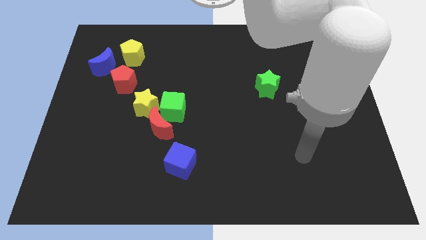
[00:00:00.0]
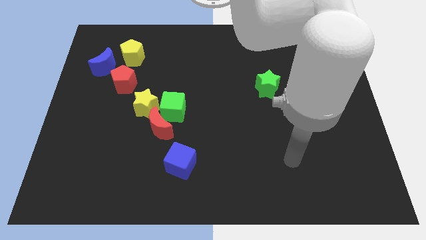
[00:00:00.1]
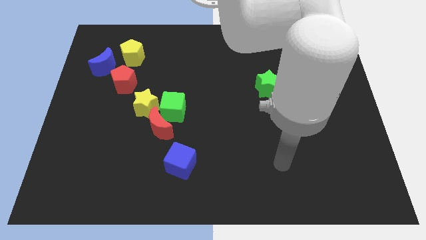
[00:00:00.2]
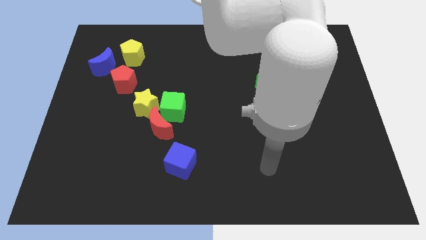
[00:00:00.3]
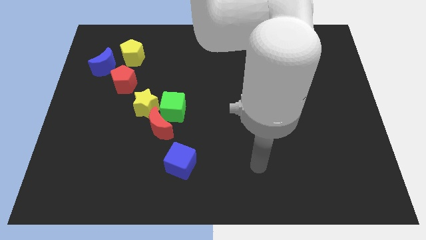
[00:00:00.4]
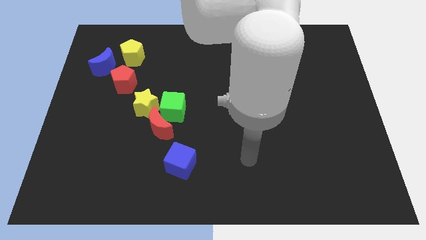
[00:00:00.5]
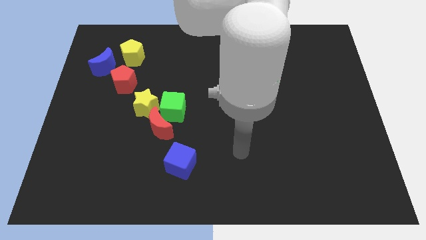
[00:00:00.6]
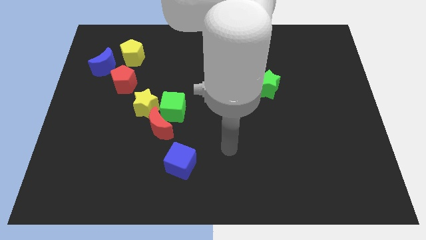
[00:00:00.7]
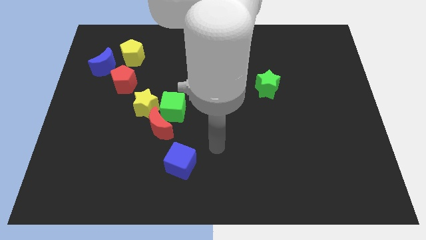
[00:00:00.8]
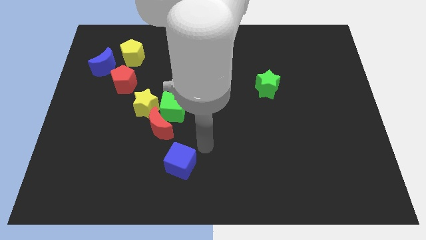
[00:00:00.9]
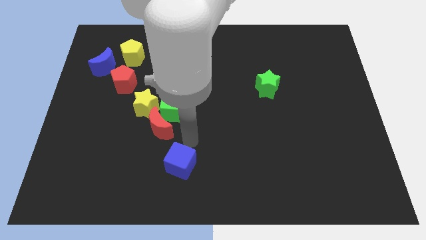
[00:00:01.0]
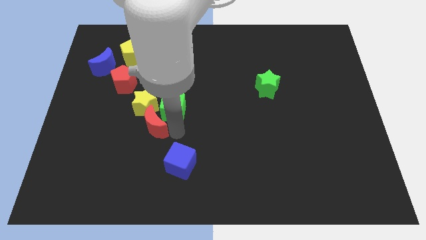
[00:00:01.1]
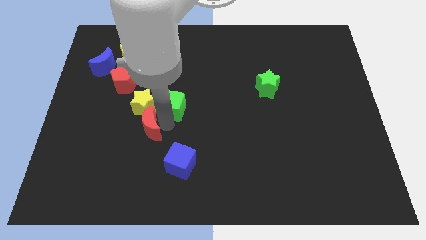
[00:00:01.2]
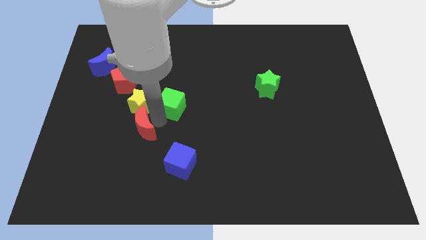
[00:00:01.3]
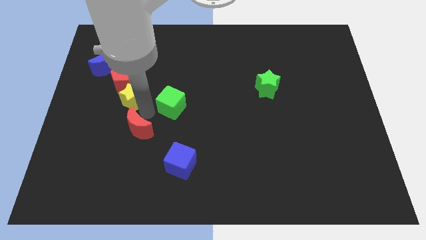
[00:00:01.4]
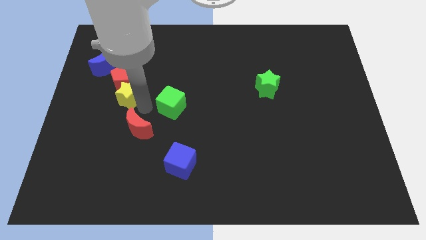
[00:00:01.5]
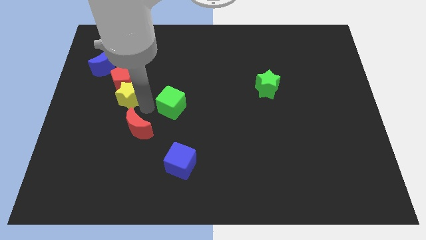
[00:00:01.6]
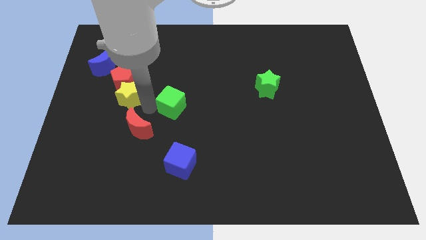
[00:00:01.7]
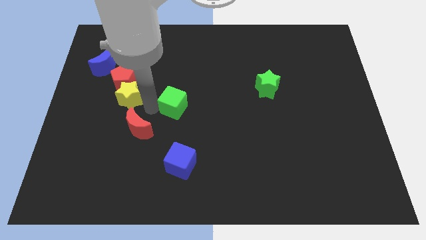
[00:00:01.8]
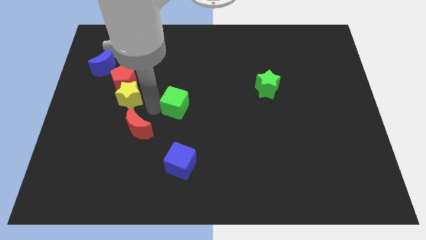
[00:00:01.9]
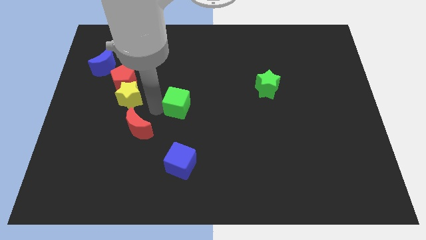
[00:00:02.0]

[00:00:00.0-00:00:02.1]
move the green cube away from the red moon and yellow star

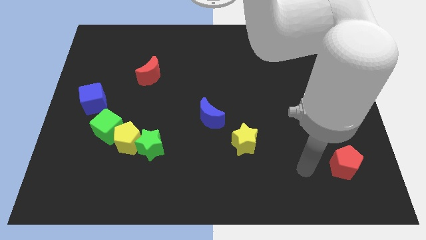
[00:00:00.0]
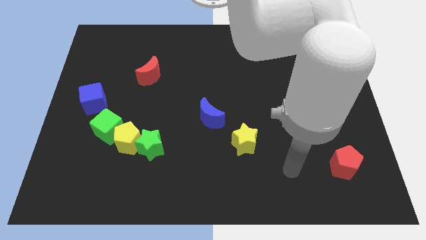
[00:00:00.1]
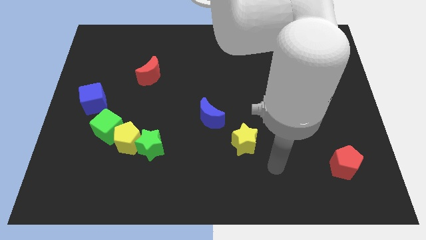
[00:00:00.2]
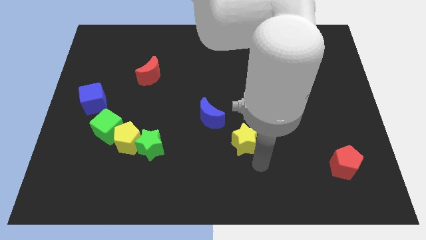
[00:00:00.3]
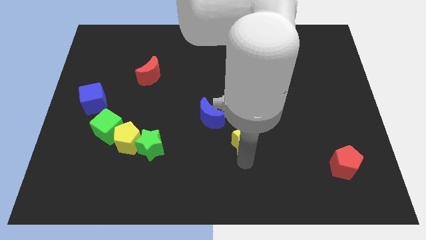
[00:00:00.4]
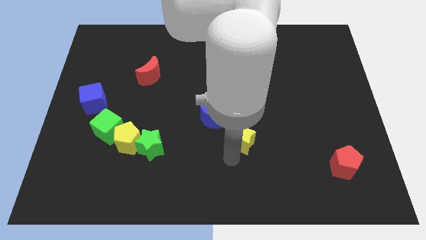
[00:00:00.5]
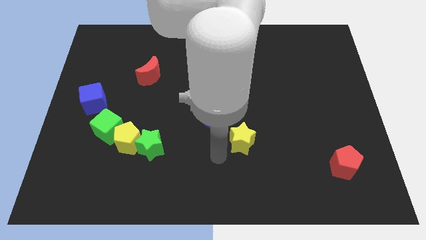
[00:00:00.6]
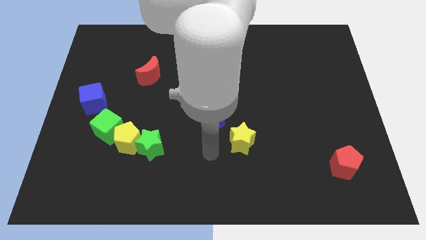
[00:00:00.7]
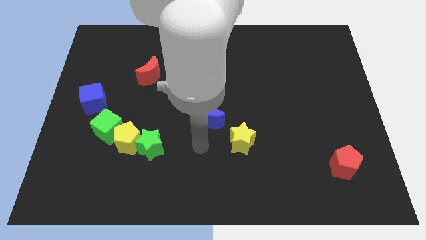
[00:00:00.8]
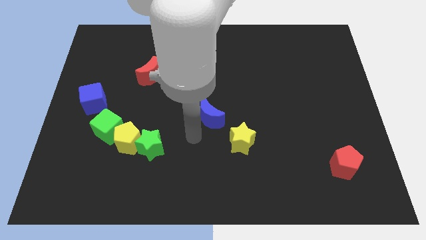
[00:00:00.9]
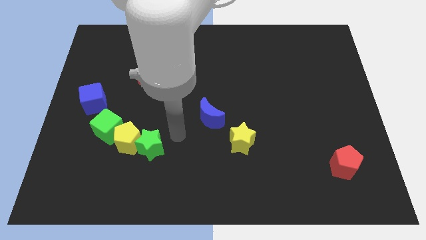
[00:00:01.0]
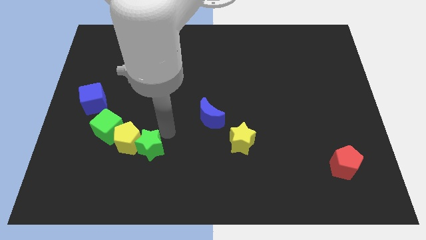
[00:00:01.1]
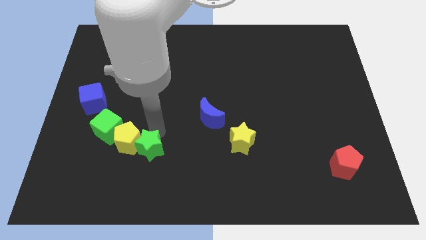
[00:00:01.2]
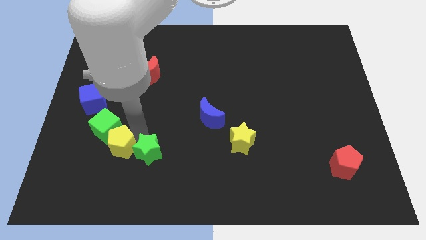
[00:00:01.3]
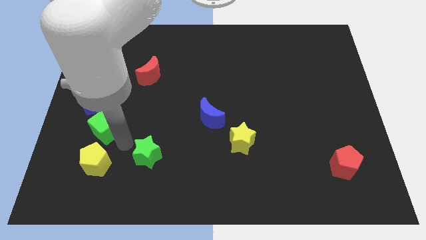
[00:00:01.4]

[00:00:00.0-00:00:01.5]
pull the green star apart from the yellow pentagon

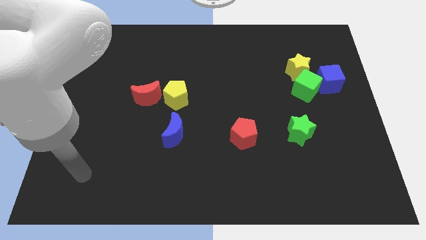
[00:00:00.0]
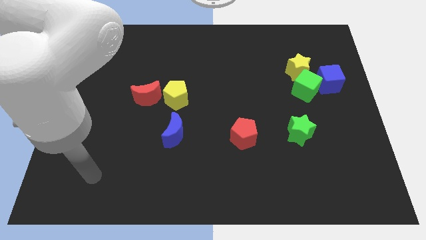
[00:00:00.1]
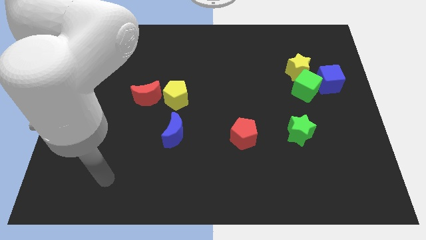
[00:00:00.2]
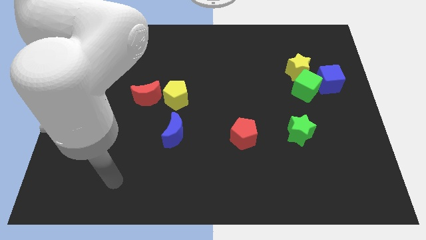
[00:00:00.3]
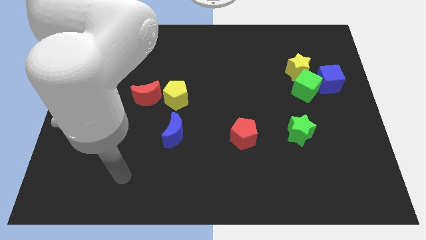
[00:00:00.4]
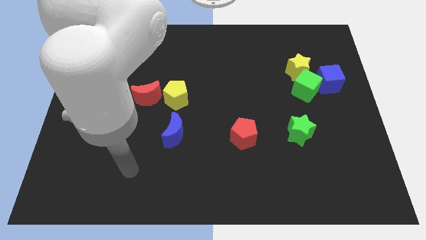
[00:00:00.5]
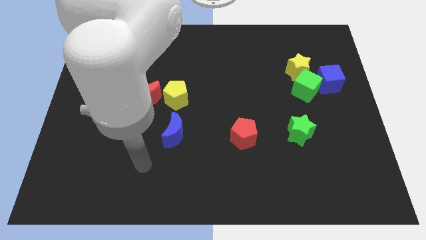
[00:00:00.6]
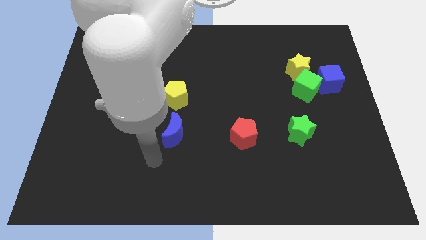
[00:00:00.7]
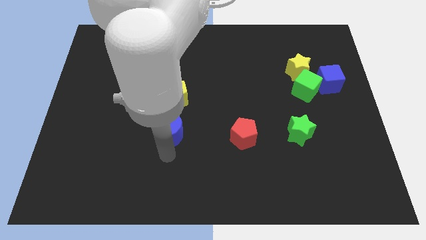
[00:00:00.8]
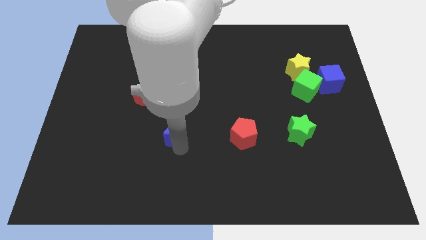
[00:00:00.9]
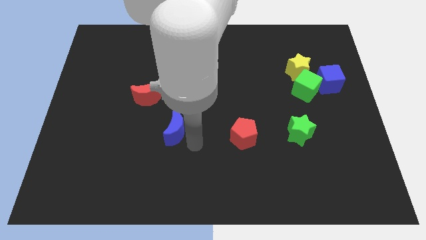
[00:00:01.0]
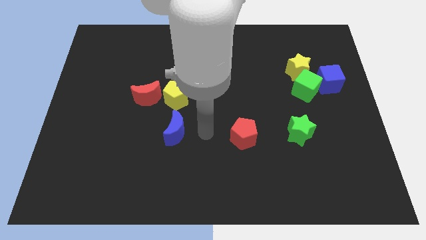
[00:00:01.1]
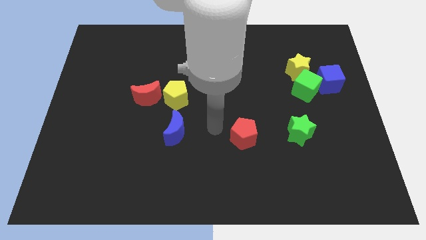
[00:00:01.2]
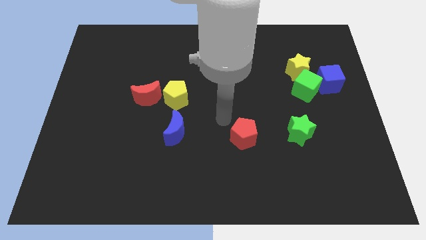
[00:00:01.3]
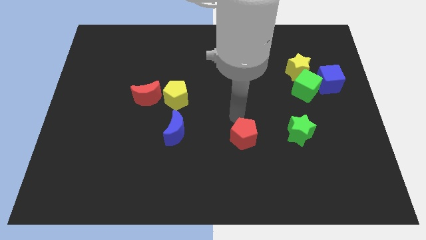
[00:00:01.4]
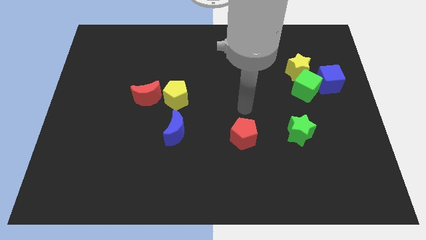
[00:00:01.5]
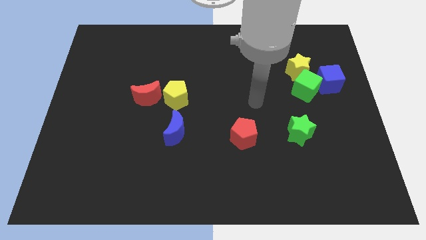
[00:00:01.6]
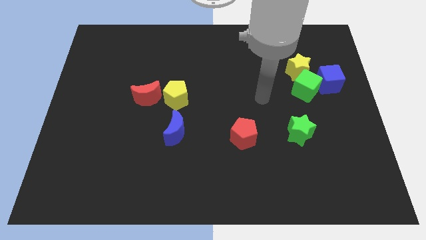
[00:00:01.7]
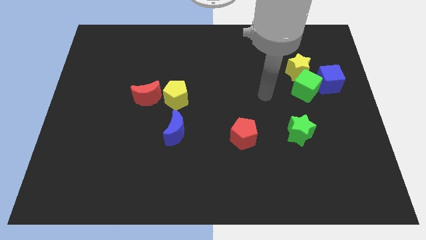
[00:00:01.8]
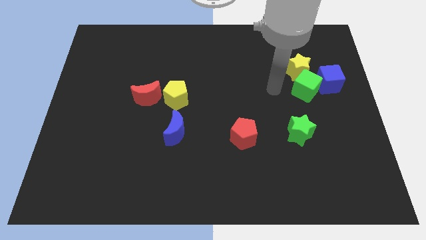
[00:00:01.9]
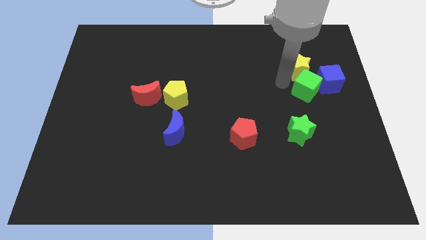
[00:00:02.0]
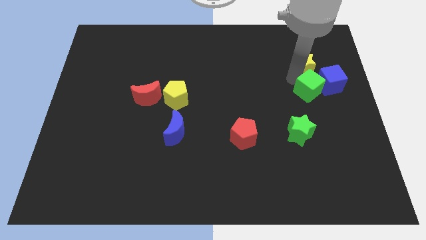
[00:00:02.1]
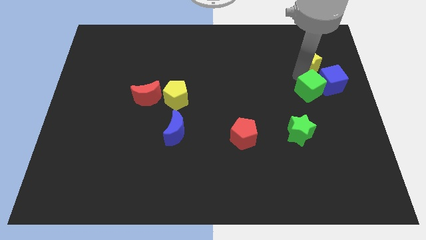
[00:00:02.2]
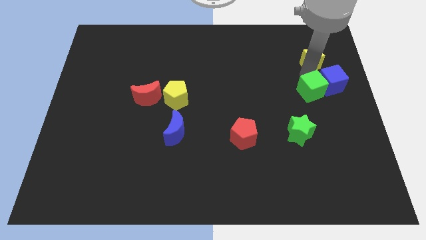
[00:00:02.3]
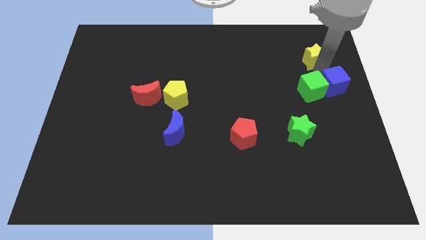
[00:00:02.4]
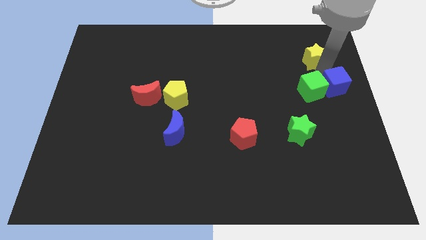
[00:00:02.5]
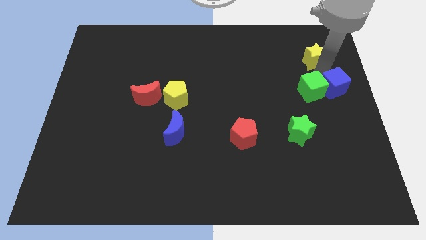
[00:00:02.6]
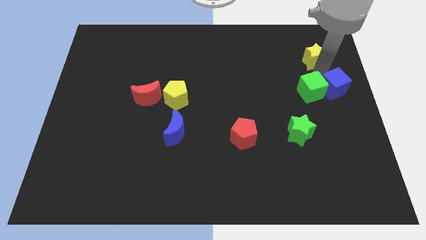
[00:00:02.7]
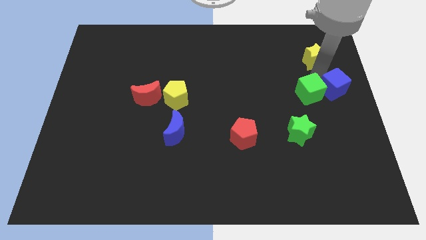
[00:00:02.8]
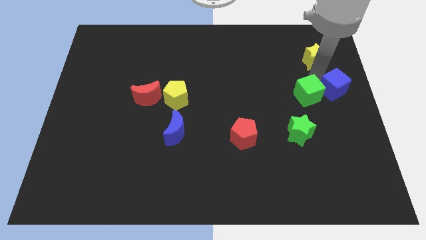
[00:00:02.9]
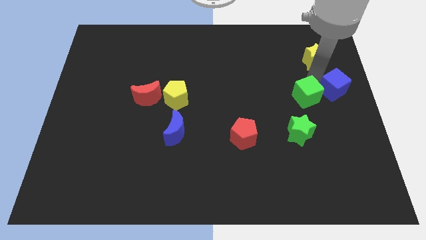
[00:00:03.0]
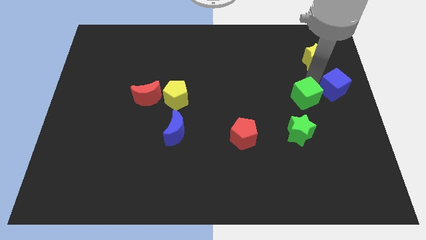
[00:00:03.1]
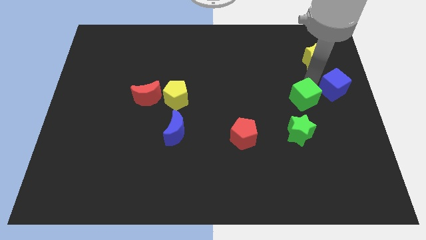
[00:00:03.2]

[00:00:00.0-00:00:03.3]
pull the green cube apart from the yellow star and blue cube

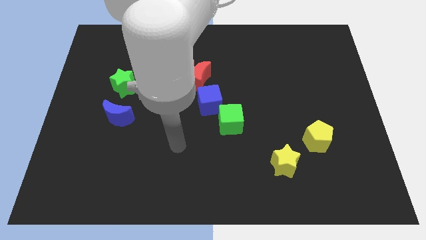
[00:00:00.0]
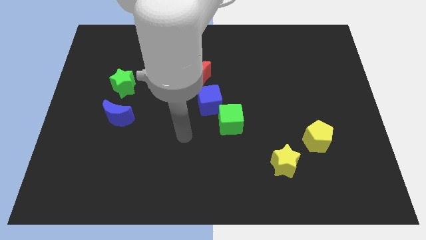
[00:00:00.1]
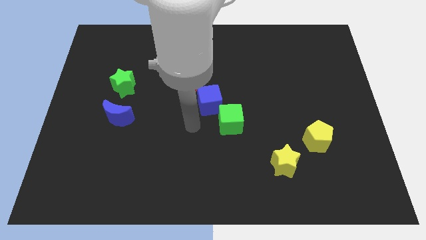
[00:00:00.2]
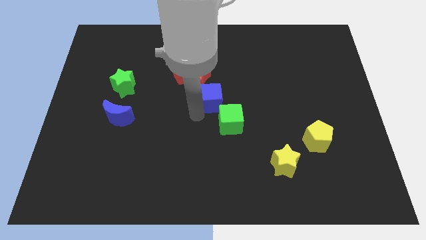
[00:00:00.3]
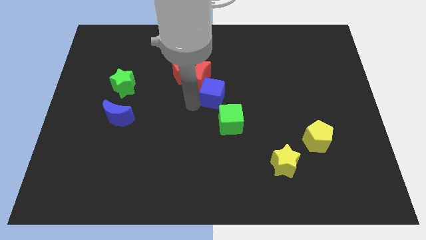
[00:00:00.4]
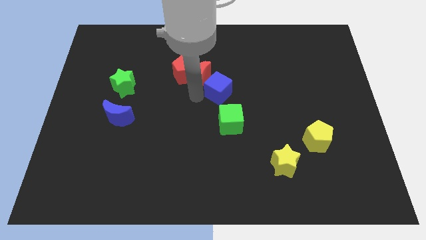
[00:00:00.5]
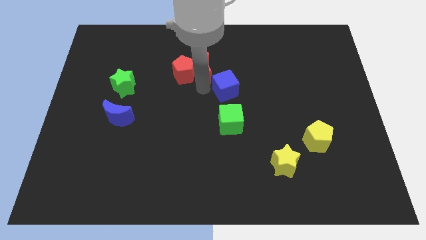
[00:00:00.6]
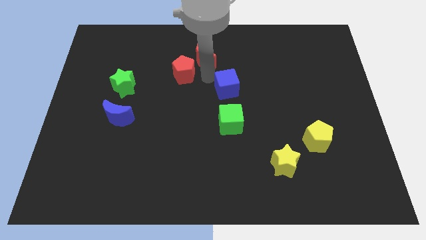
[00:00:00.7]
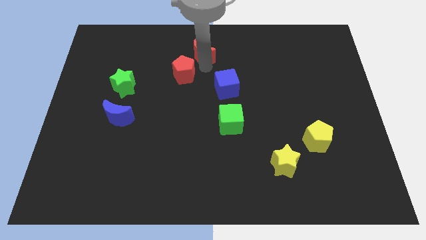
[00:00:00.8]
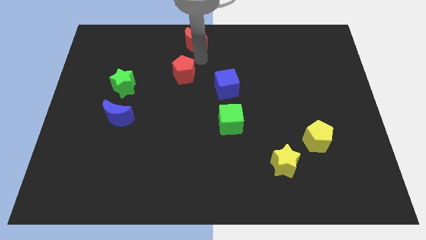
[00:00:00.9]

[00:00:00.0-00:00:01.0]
separate the red pentagon from the red moon

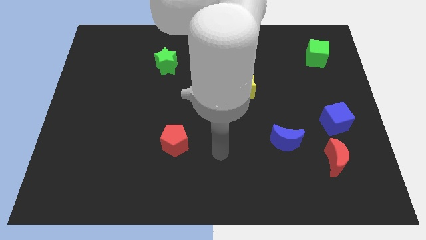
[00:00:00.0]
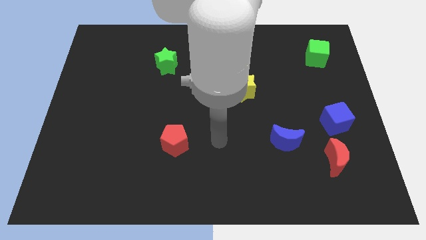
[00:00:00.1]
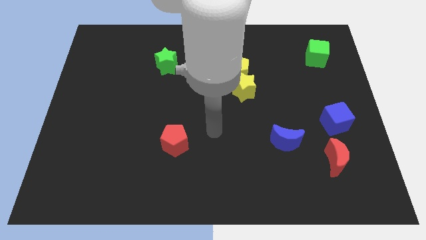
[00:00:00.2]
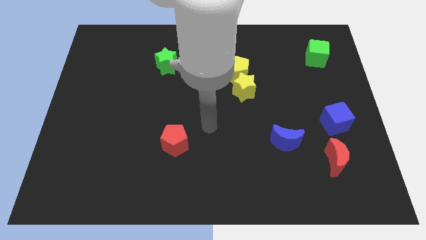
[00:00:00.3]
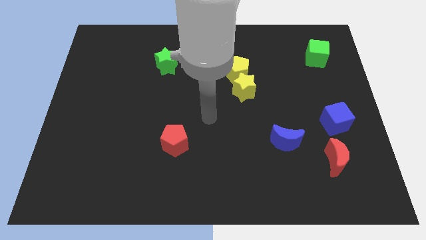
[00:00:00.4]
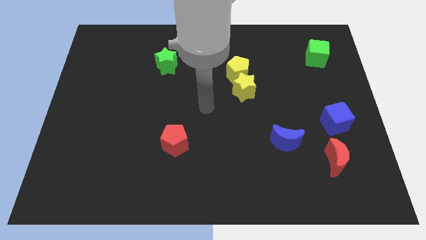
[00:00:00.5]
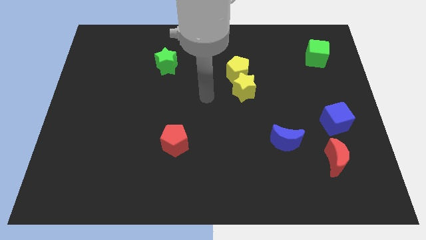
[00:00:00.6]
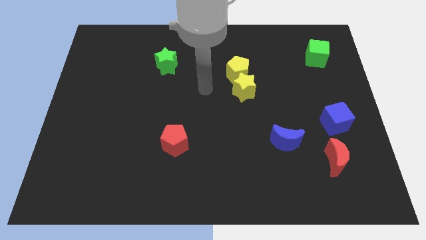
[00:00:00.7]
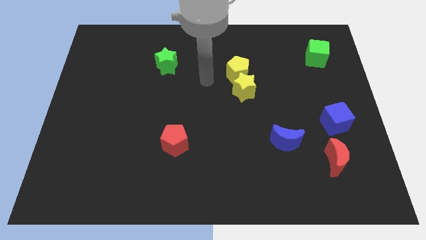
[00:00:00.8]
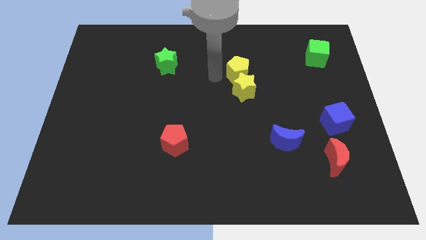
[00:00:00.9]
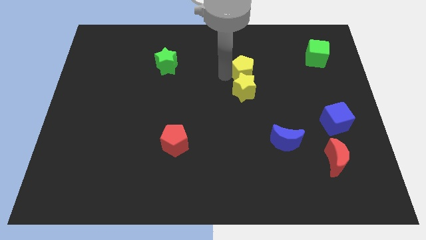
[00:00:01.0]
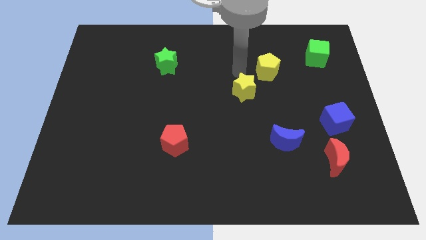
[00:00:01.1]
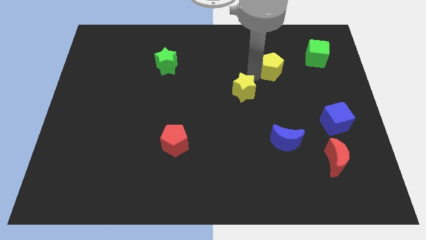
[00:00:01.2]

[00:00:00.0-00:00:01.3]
separate the yellow star from the yellow pentagon
